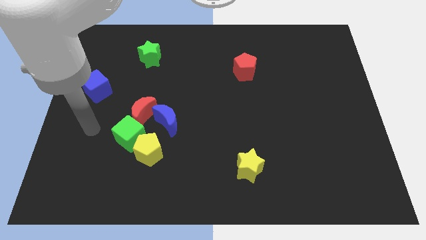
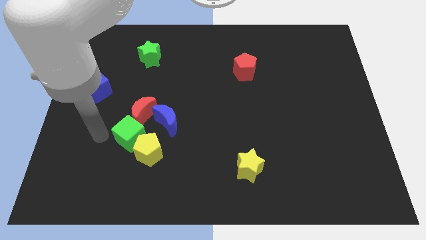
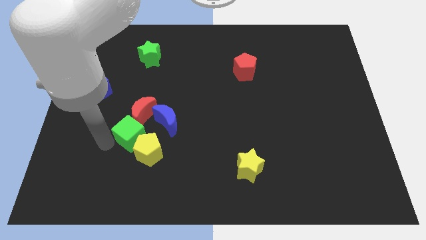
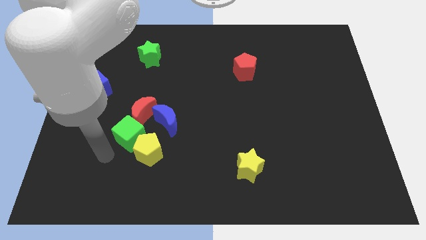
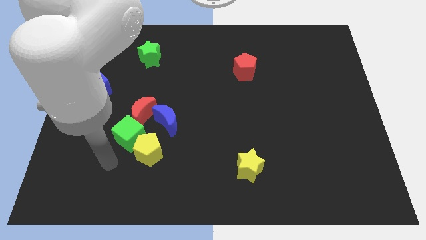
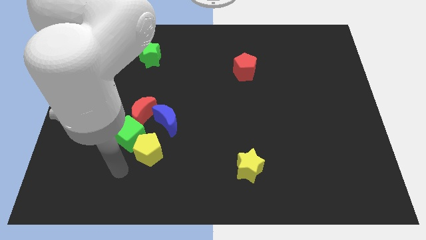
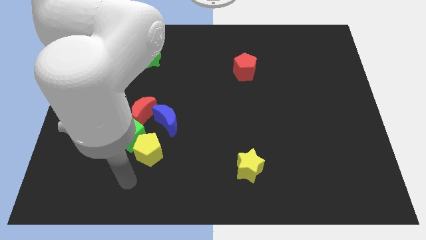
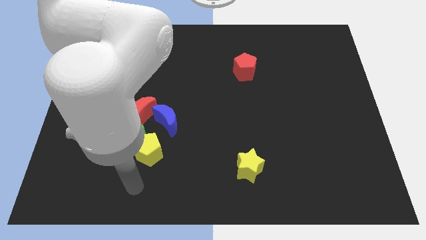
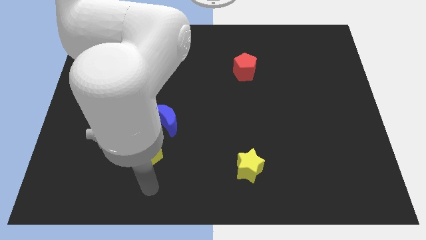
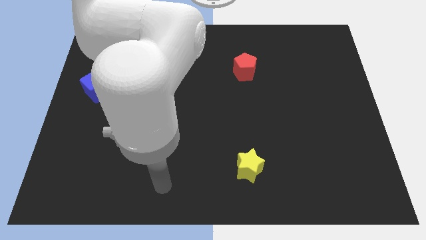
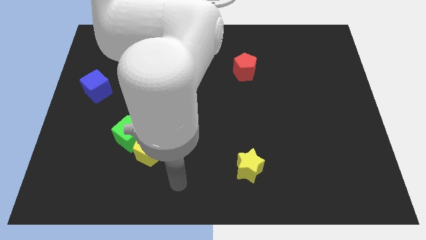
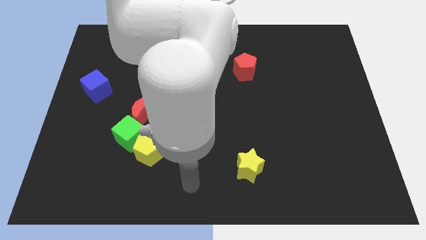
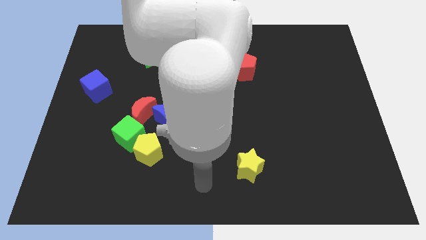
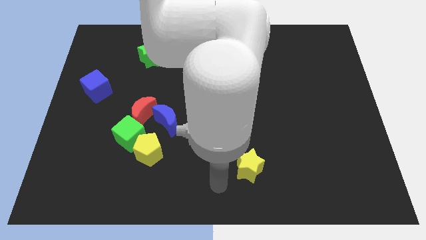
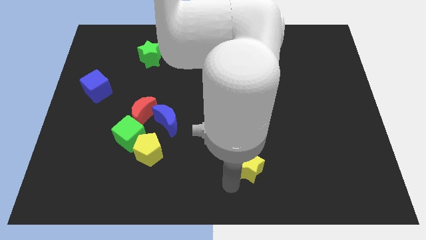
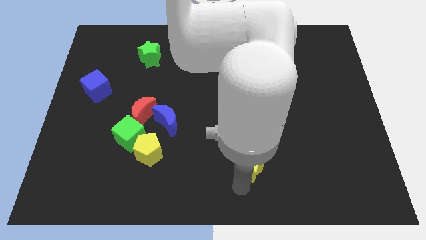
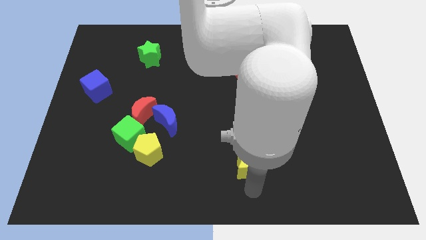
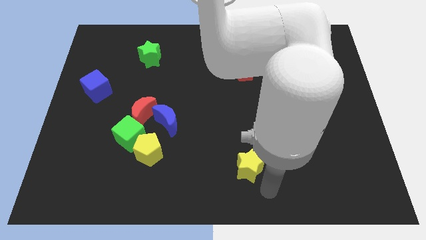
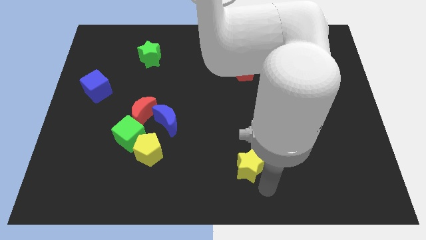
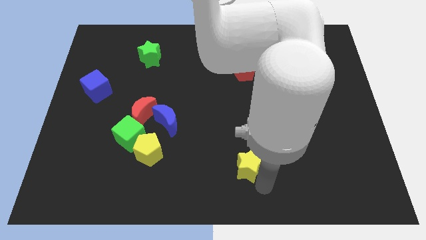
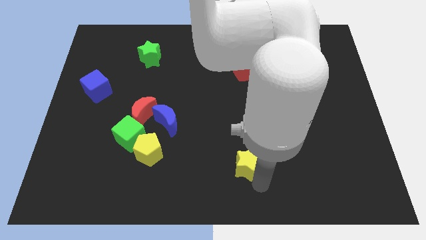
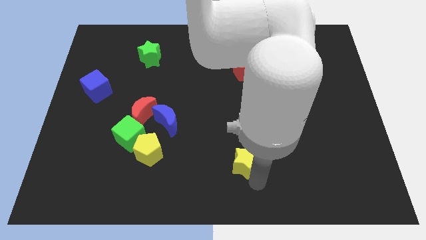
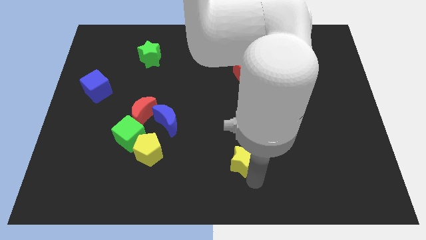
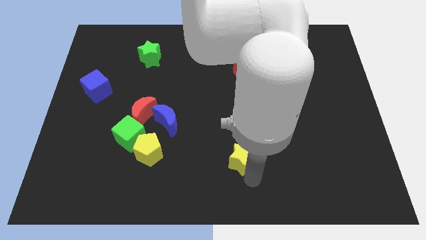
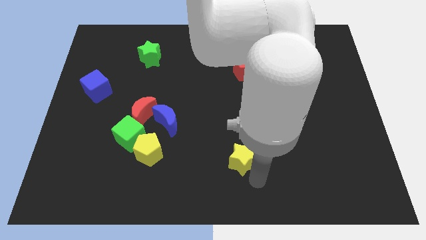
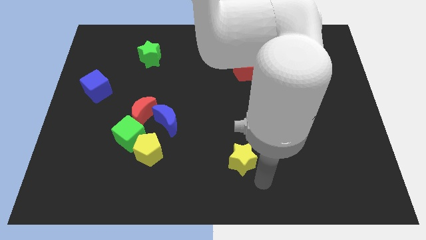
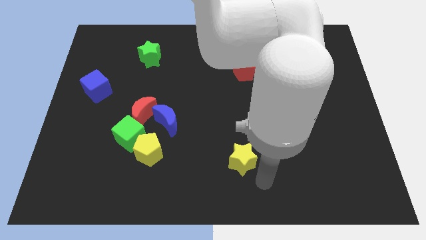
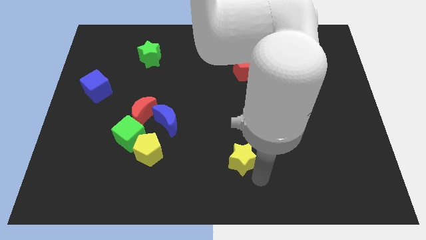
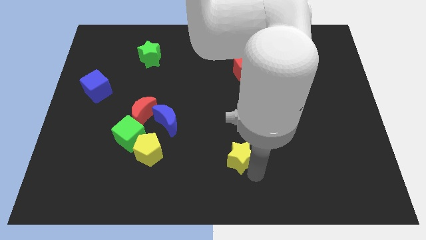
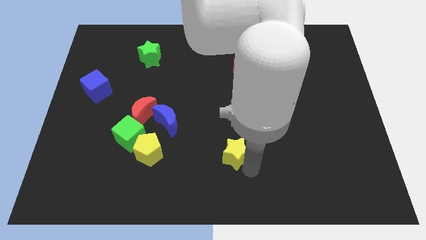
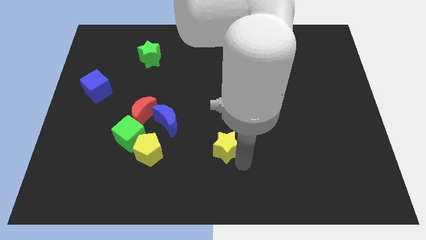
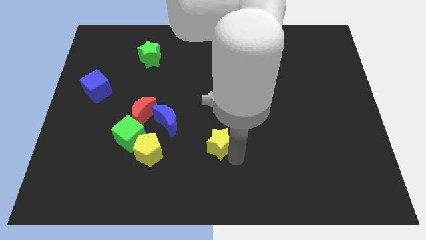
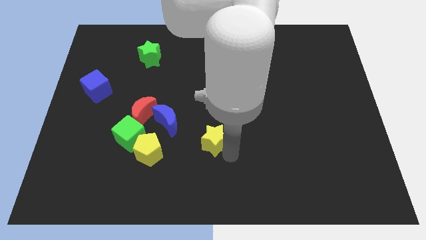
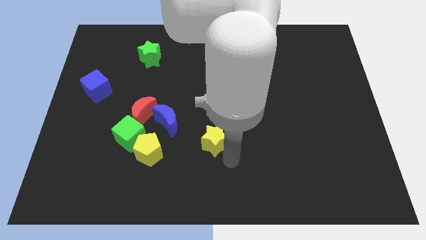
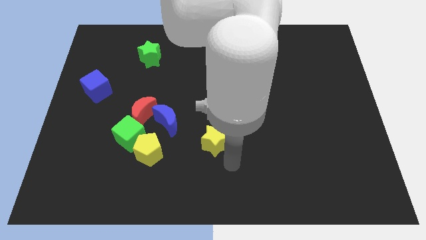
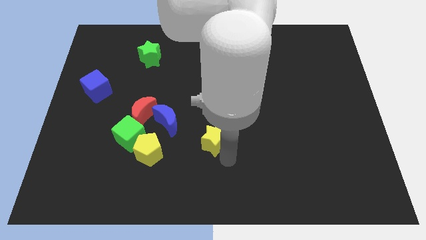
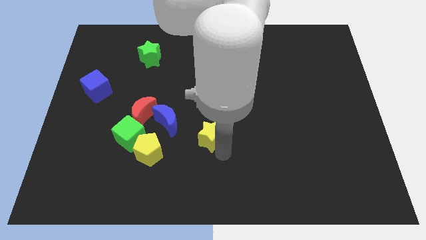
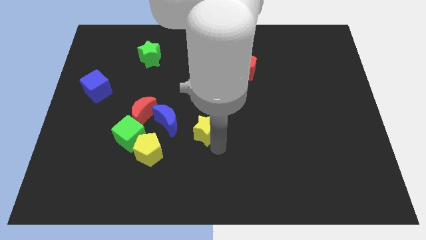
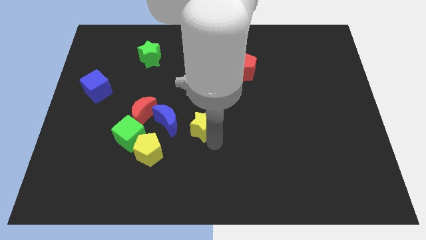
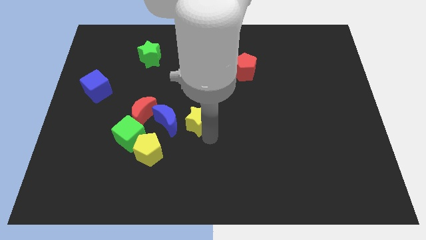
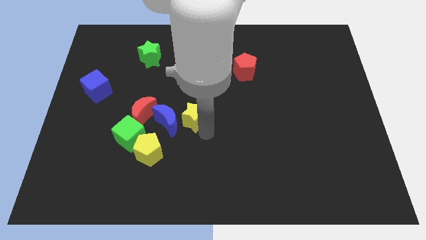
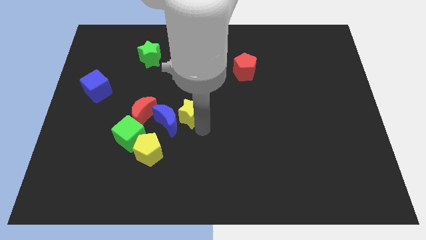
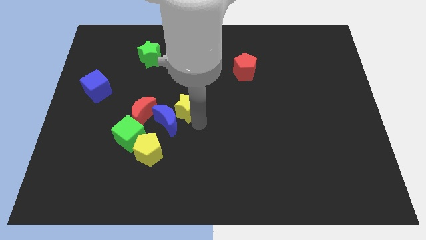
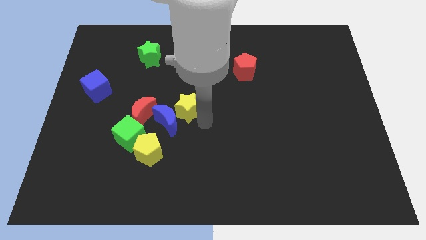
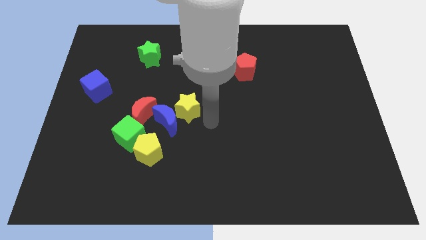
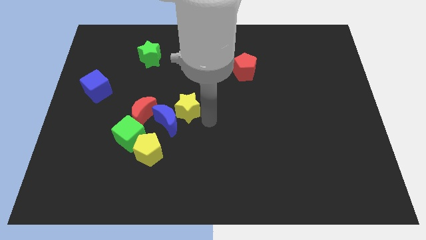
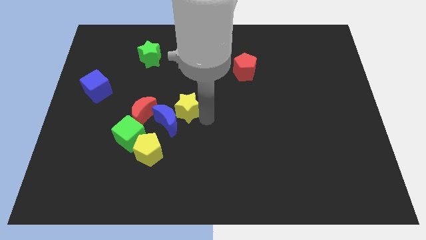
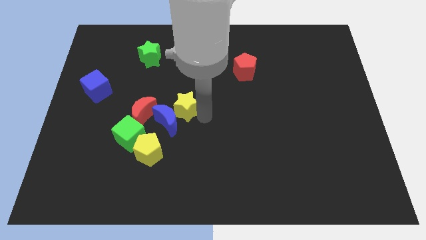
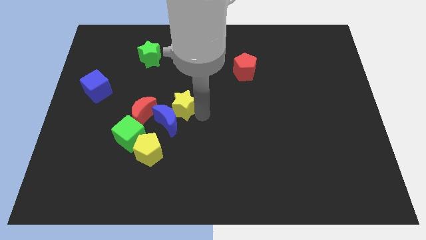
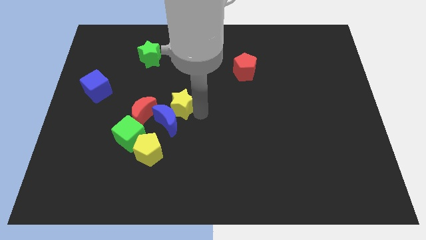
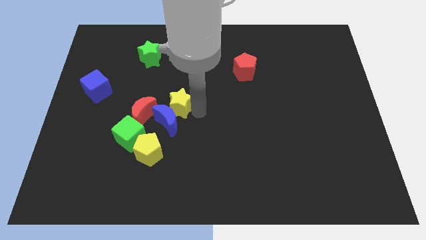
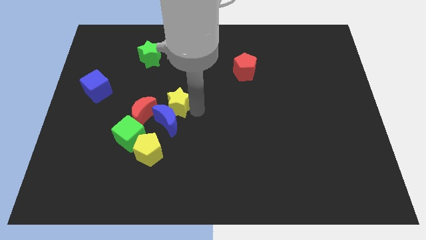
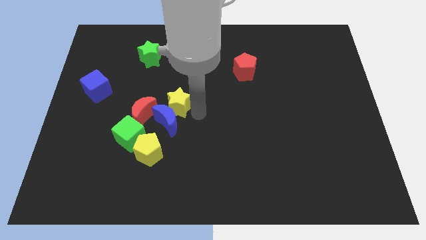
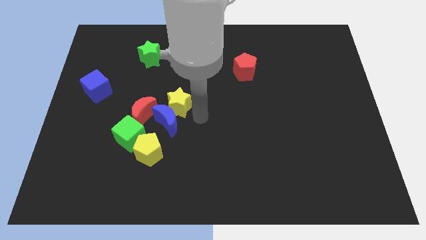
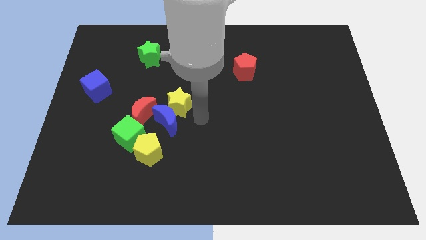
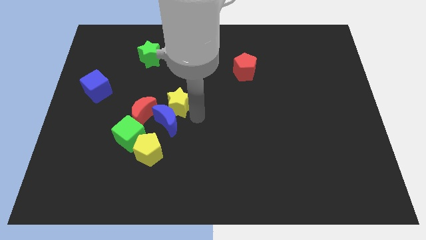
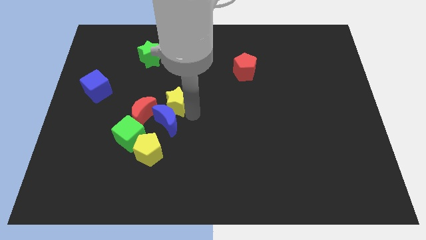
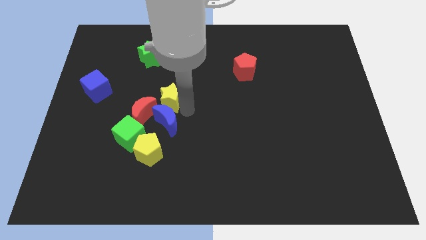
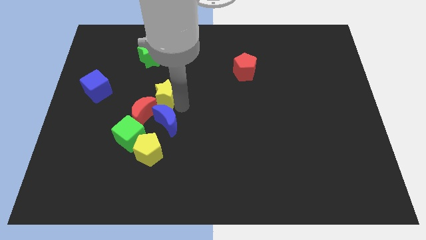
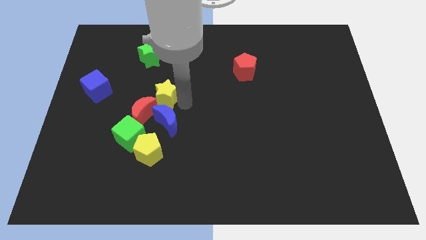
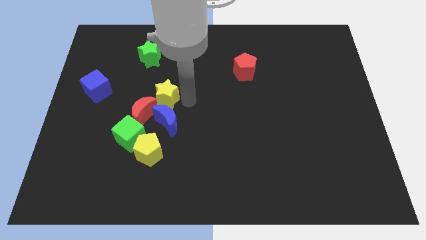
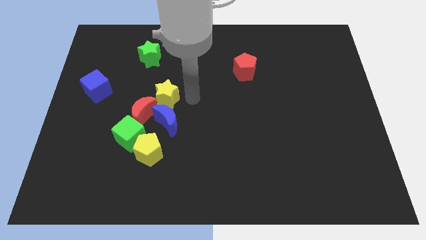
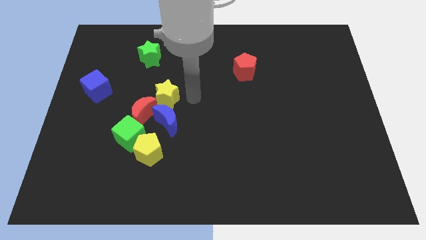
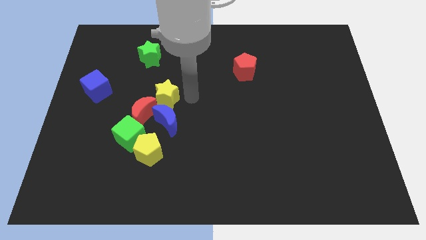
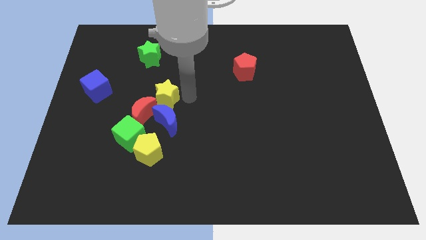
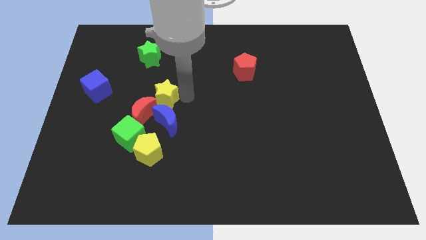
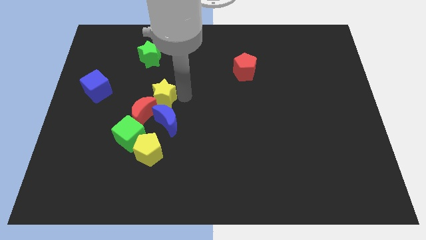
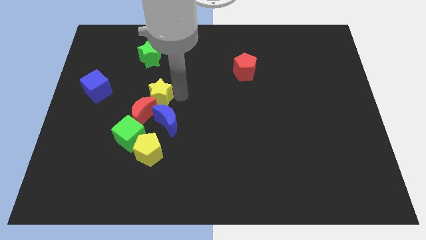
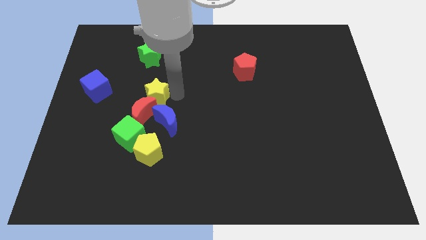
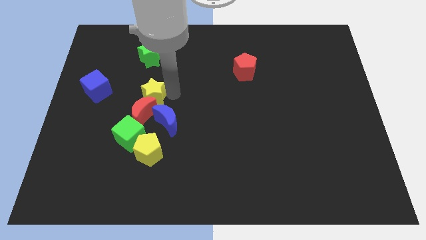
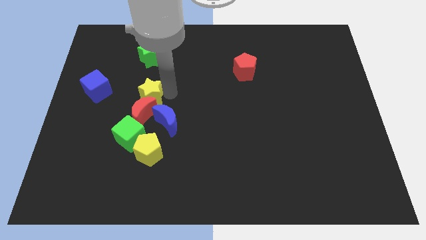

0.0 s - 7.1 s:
move the yellow star diagonally up and to the left of the red moon
